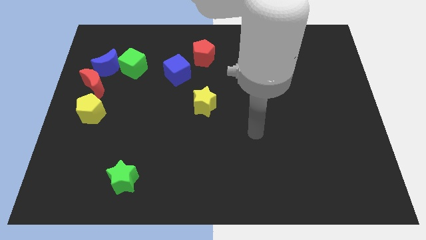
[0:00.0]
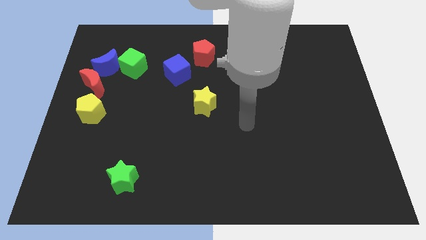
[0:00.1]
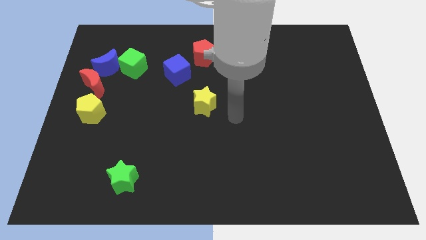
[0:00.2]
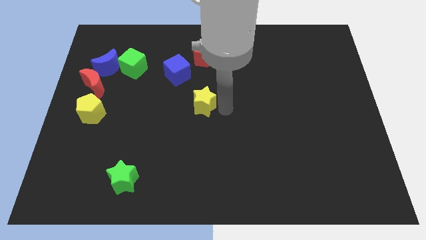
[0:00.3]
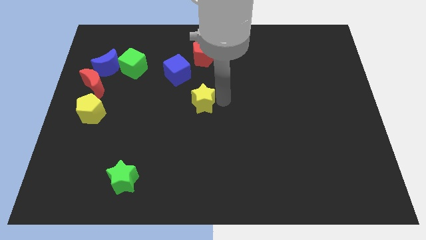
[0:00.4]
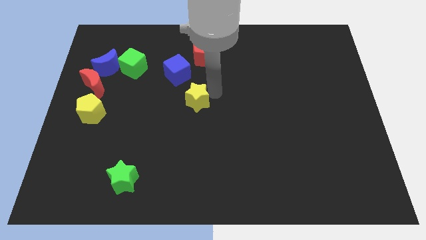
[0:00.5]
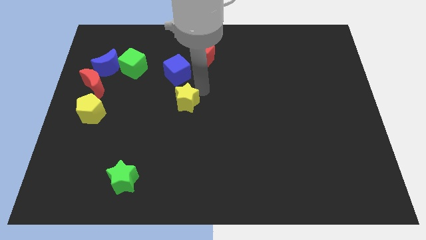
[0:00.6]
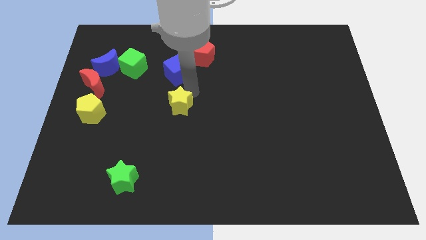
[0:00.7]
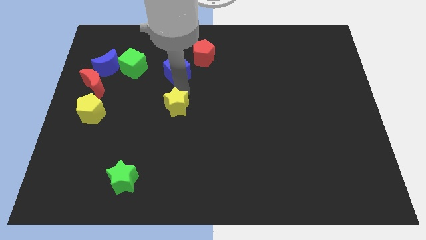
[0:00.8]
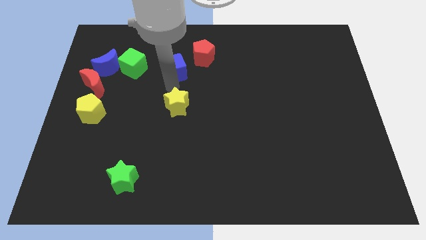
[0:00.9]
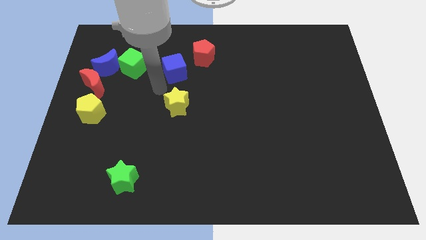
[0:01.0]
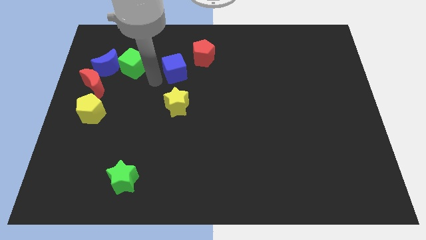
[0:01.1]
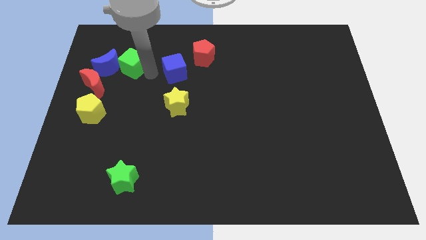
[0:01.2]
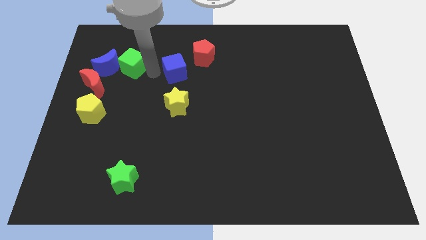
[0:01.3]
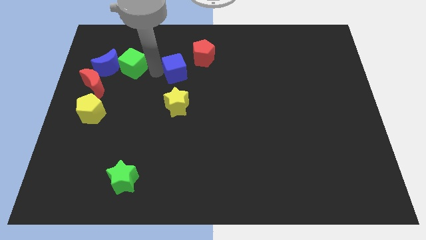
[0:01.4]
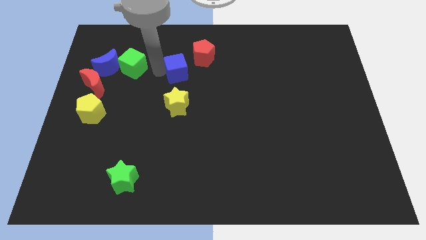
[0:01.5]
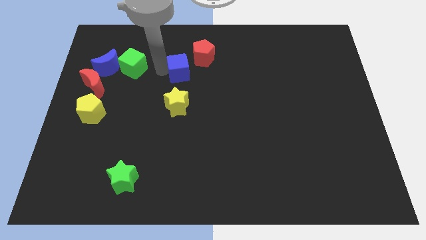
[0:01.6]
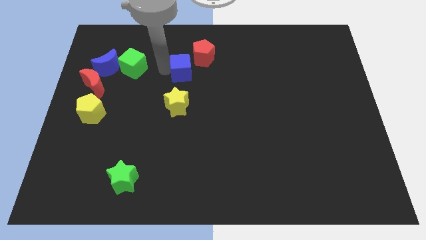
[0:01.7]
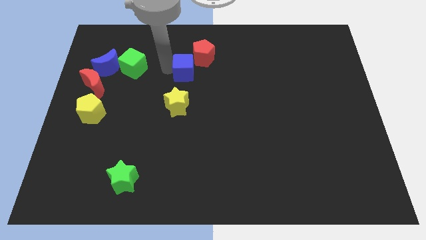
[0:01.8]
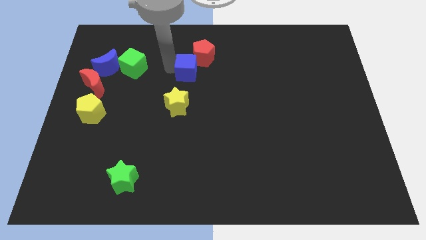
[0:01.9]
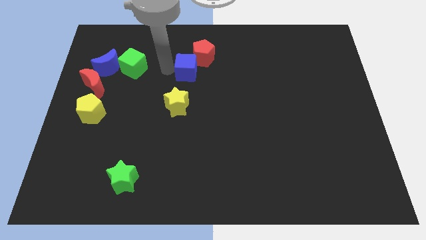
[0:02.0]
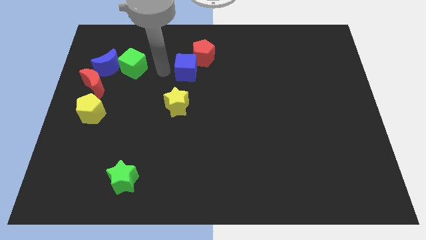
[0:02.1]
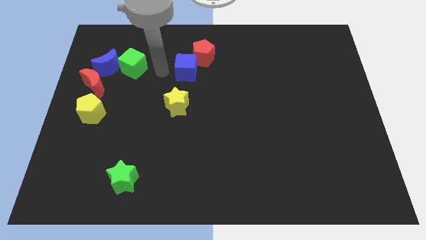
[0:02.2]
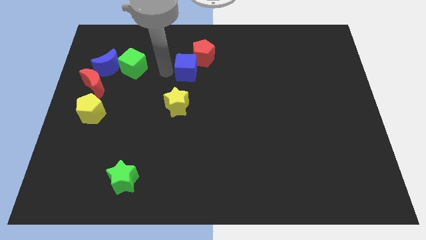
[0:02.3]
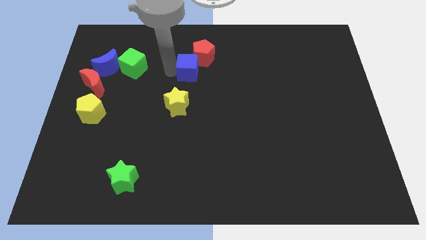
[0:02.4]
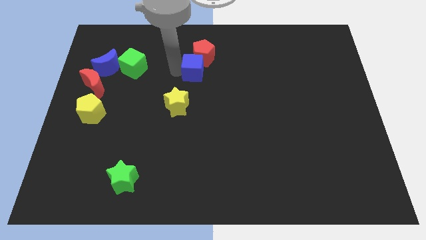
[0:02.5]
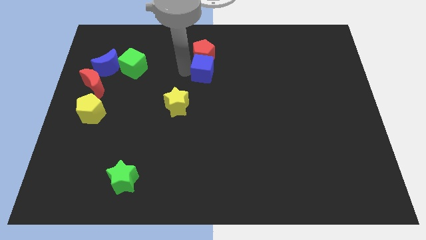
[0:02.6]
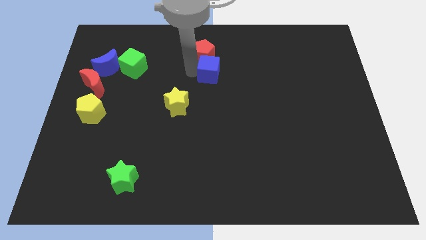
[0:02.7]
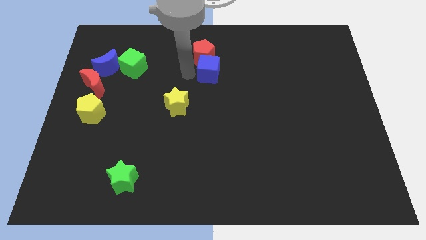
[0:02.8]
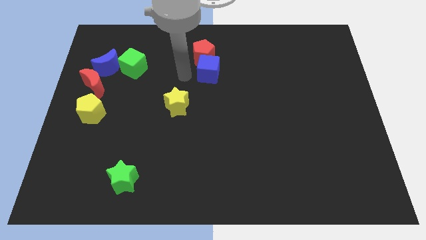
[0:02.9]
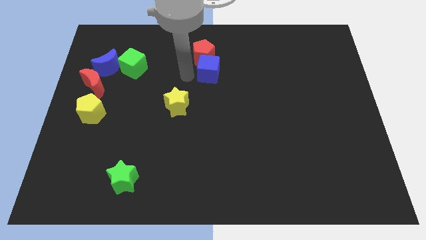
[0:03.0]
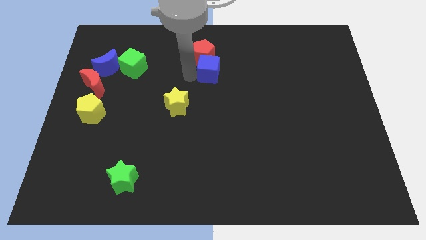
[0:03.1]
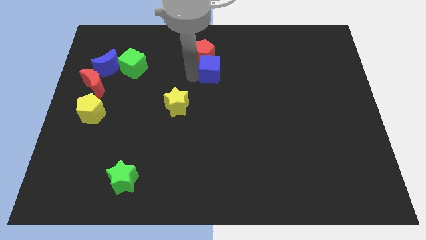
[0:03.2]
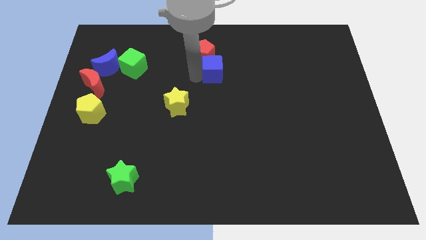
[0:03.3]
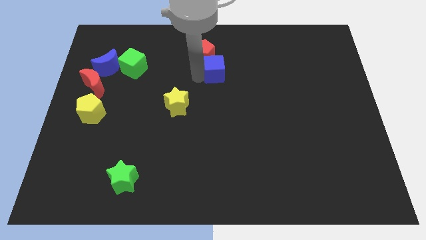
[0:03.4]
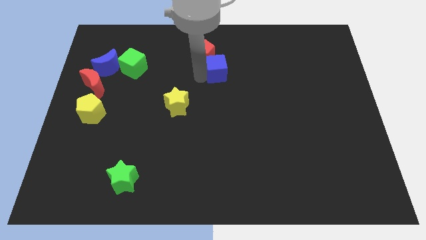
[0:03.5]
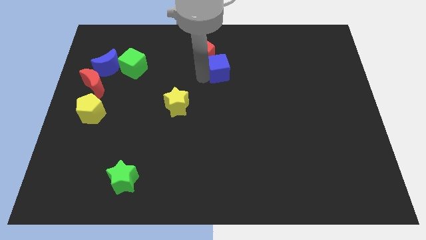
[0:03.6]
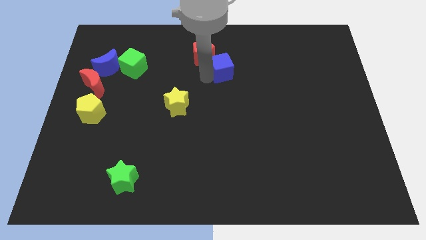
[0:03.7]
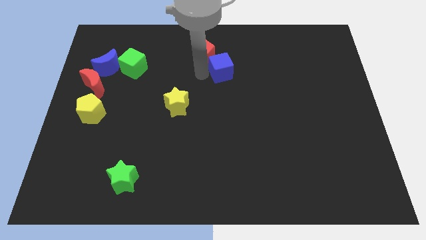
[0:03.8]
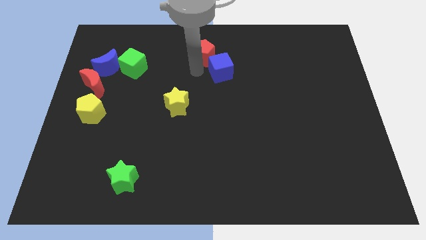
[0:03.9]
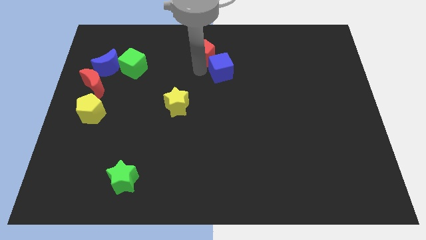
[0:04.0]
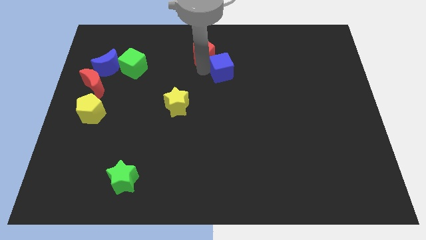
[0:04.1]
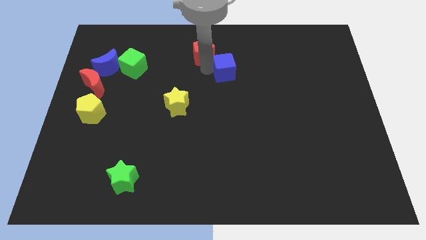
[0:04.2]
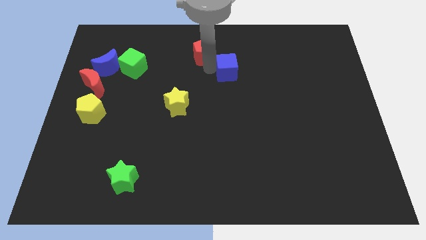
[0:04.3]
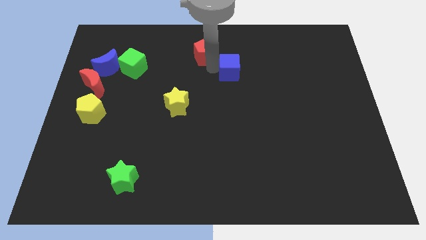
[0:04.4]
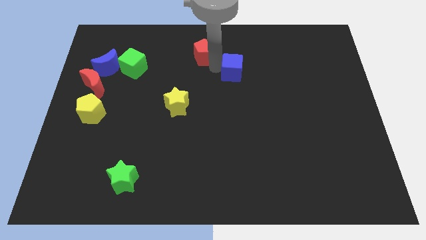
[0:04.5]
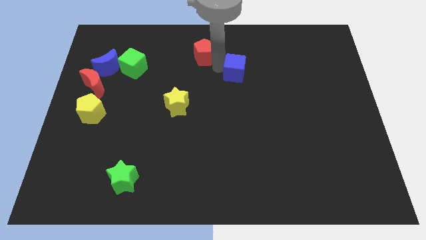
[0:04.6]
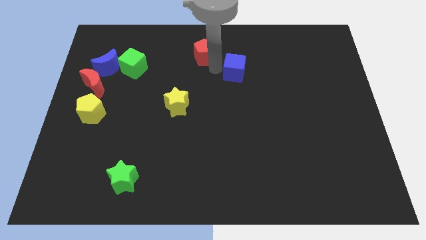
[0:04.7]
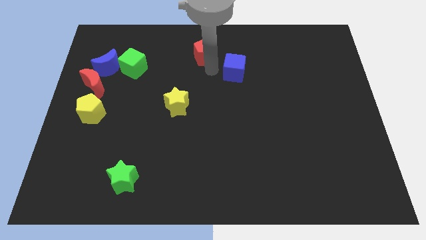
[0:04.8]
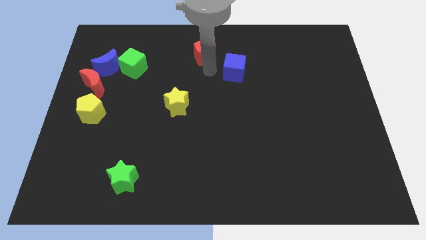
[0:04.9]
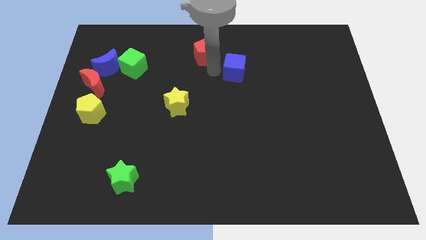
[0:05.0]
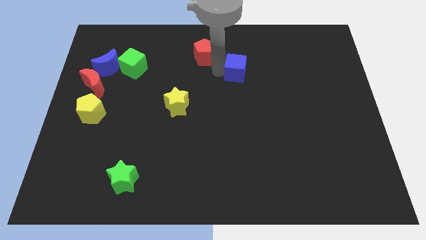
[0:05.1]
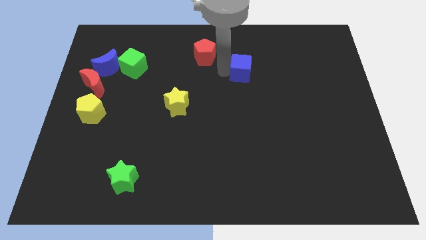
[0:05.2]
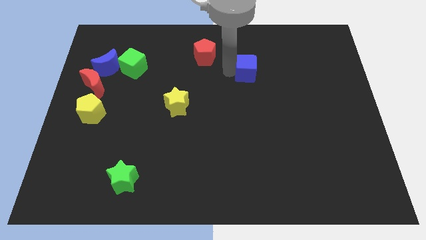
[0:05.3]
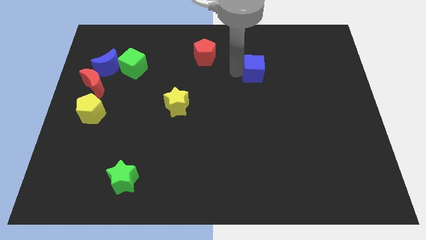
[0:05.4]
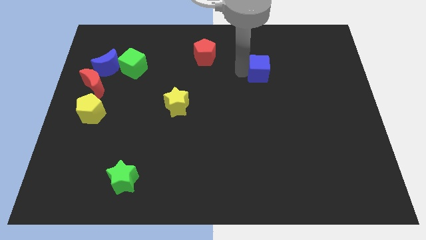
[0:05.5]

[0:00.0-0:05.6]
push the blue cube to the right

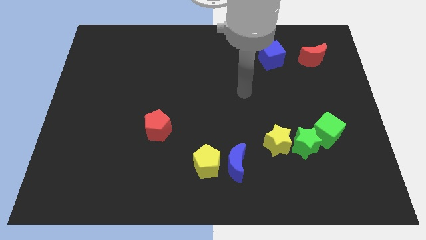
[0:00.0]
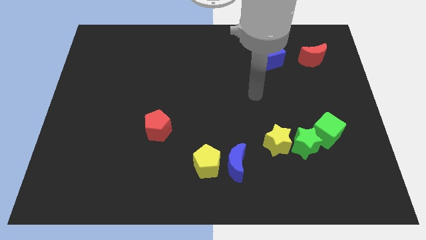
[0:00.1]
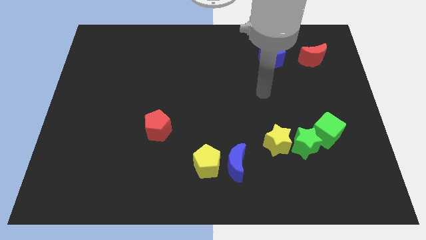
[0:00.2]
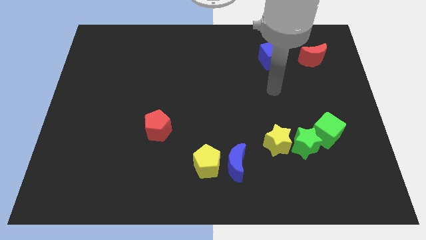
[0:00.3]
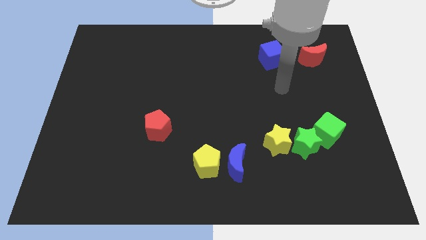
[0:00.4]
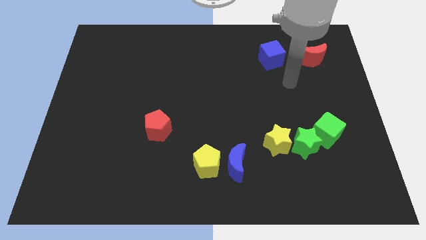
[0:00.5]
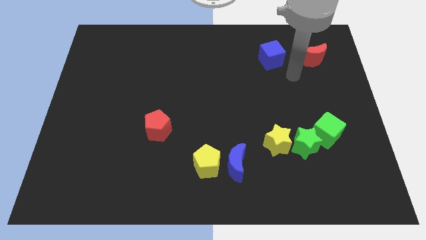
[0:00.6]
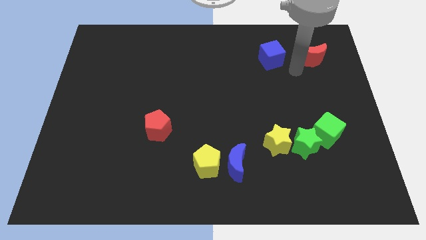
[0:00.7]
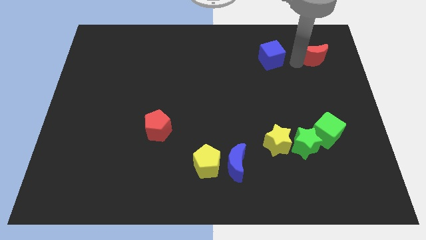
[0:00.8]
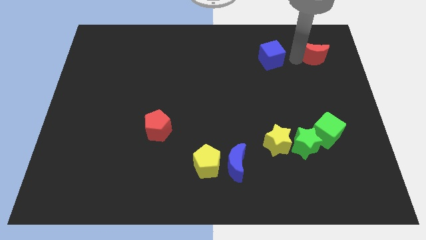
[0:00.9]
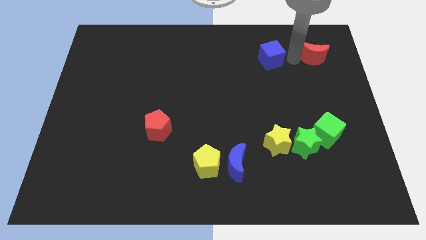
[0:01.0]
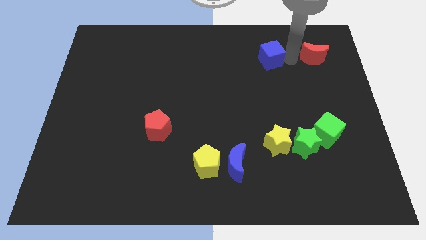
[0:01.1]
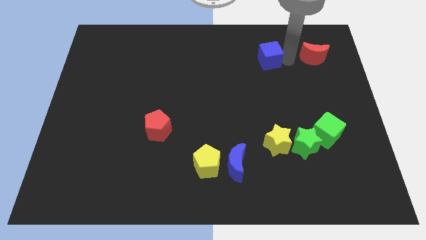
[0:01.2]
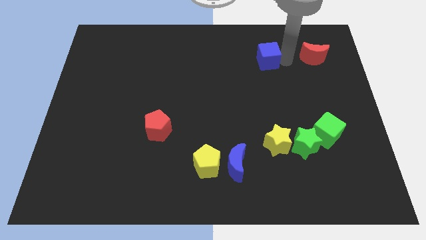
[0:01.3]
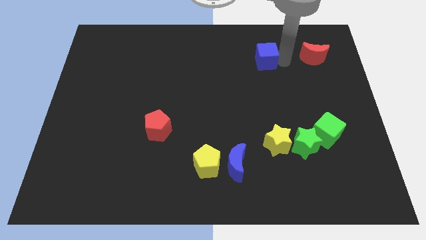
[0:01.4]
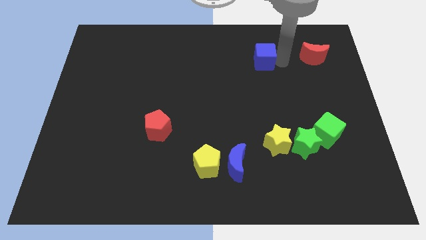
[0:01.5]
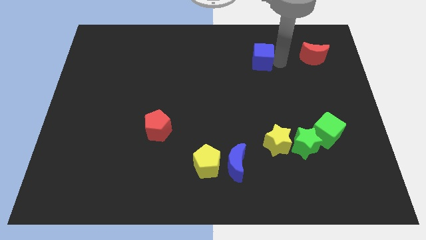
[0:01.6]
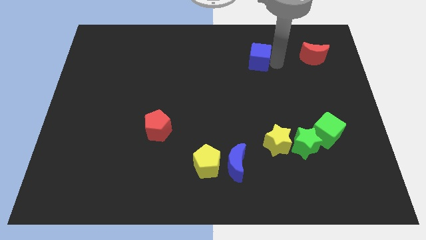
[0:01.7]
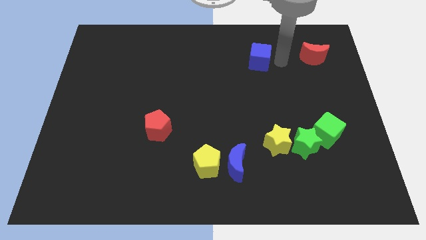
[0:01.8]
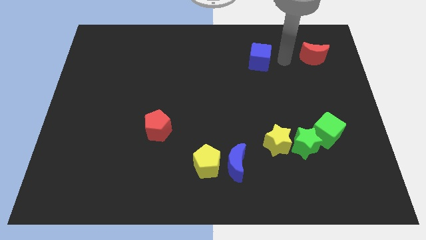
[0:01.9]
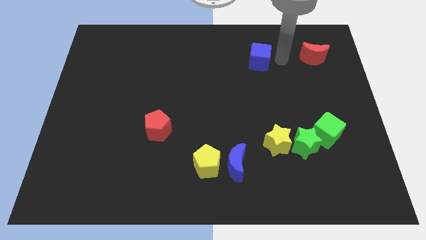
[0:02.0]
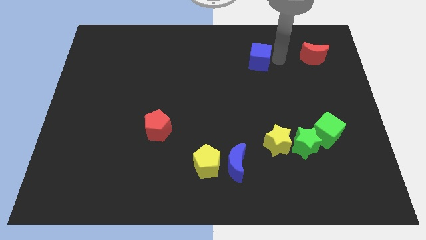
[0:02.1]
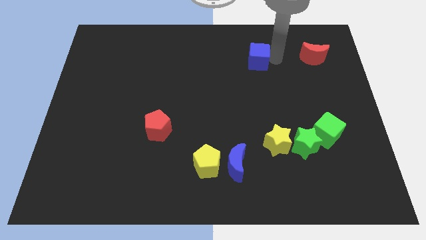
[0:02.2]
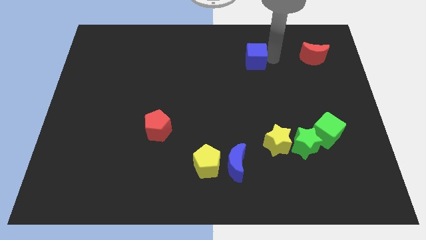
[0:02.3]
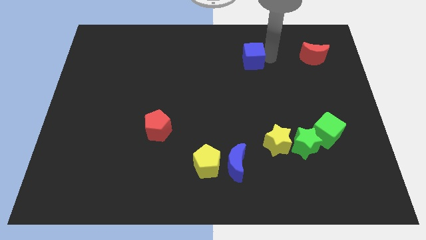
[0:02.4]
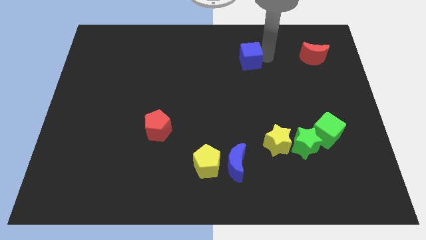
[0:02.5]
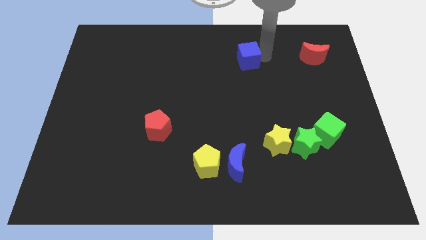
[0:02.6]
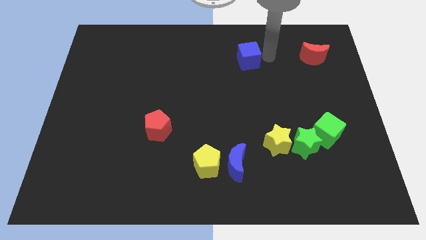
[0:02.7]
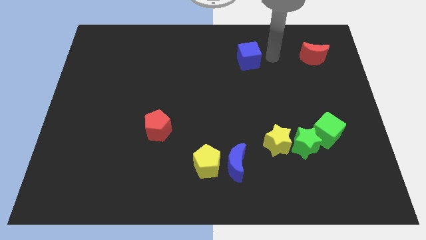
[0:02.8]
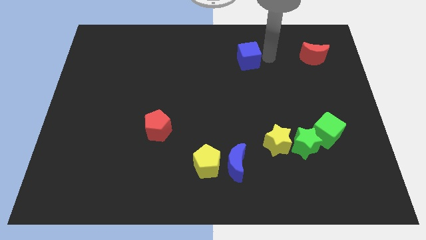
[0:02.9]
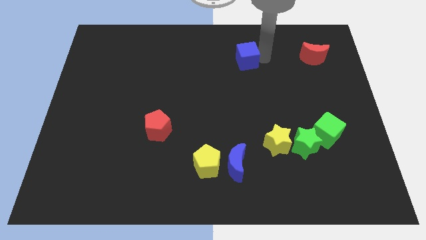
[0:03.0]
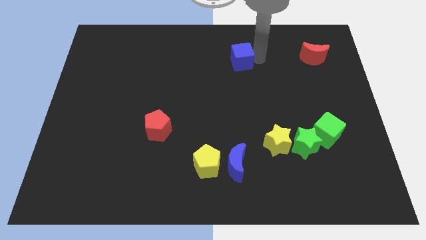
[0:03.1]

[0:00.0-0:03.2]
move the blue cube somewhat left
